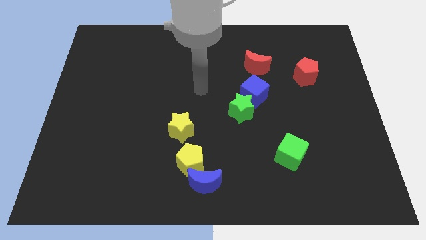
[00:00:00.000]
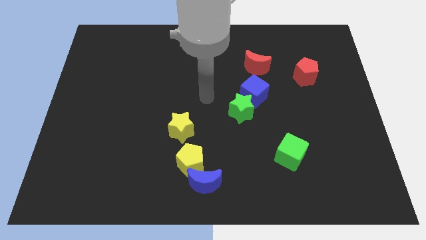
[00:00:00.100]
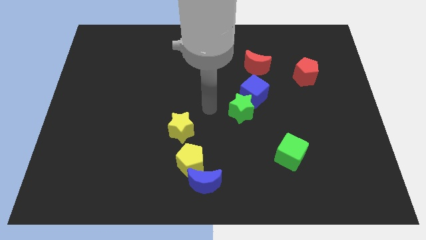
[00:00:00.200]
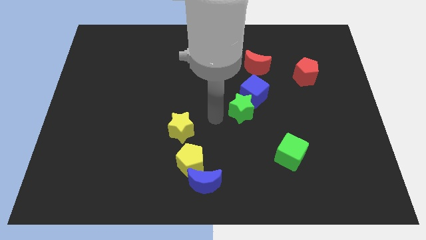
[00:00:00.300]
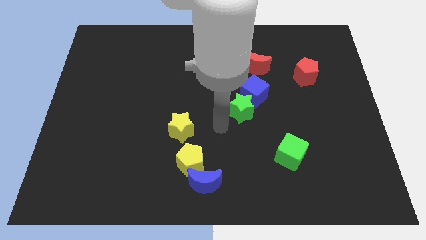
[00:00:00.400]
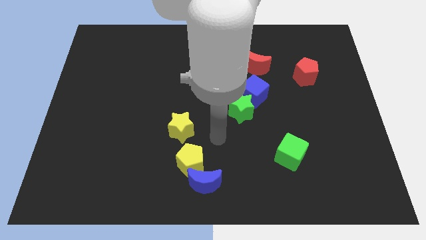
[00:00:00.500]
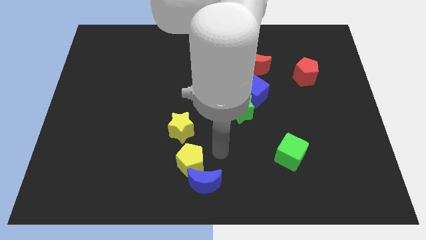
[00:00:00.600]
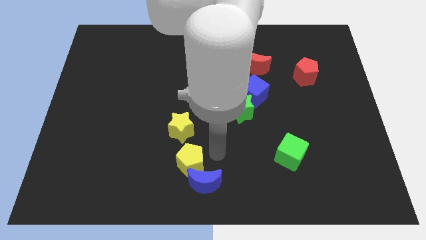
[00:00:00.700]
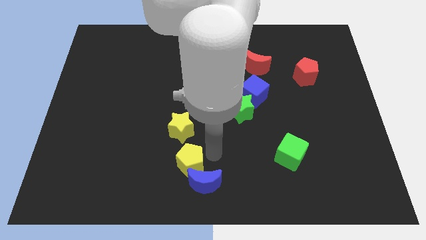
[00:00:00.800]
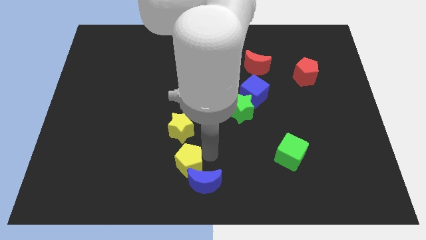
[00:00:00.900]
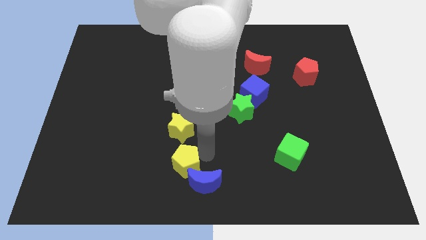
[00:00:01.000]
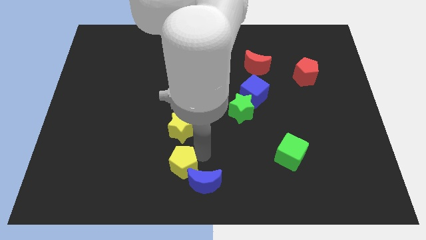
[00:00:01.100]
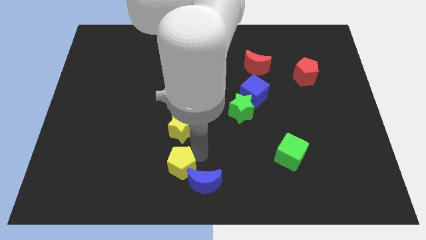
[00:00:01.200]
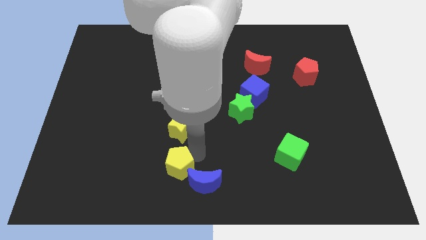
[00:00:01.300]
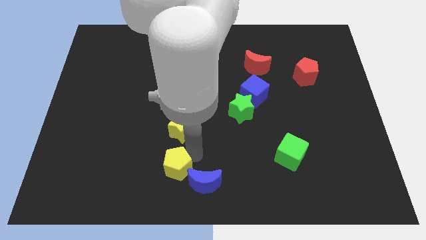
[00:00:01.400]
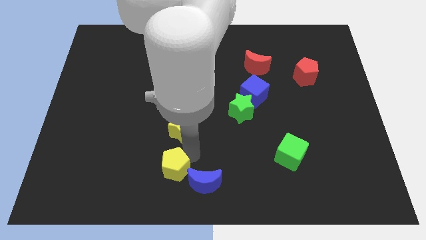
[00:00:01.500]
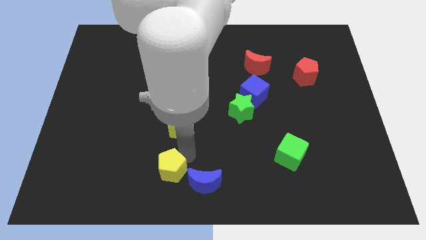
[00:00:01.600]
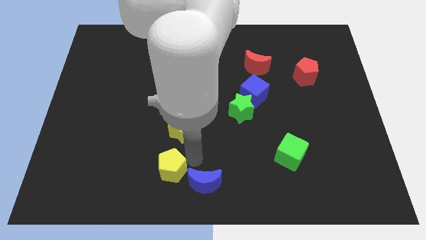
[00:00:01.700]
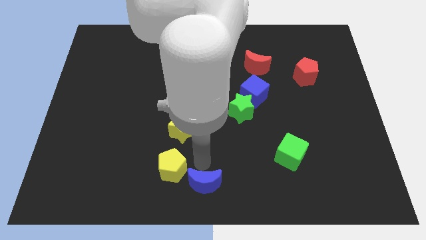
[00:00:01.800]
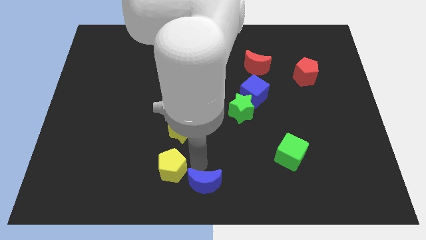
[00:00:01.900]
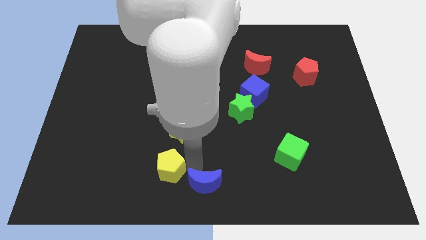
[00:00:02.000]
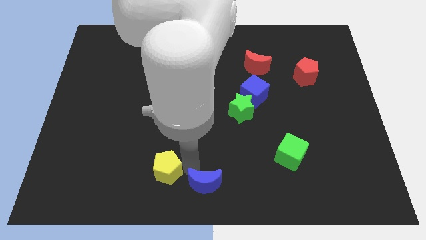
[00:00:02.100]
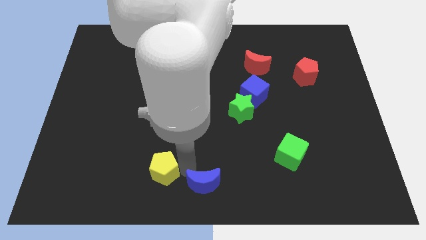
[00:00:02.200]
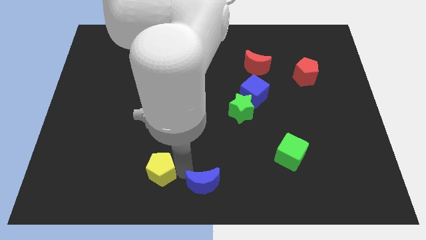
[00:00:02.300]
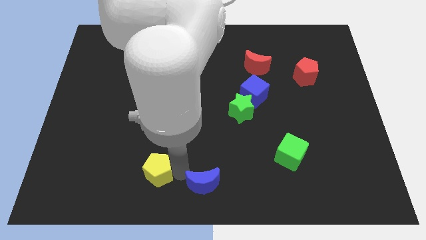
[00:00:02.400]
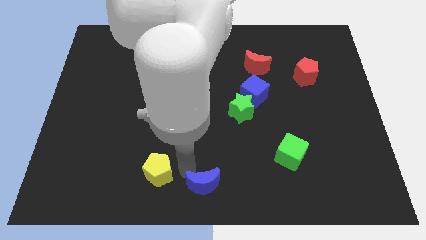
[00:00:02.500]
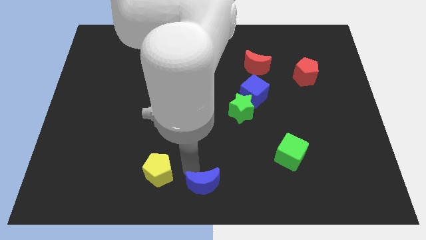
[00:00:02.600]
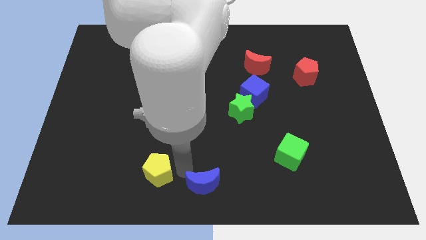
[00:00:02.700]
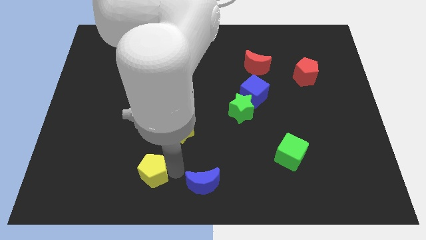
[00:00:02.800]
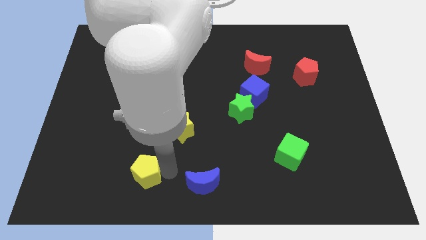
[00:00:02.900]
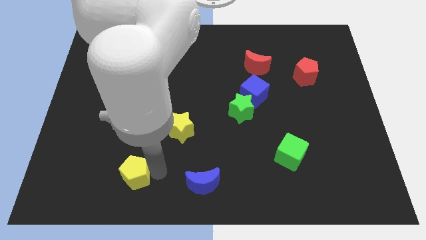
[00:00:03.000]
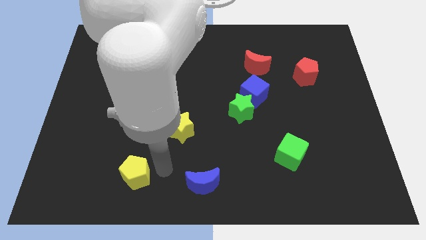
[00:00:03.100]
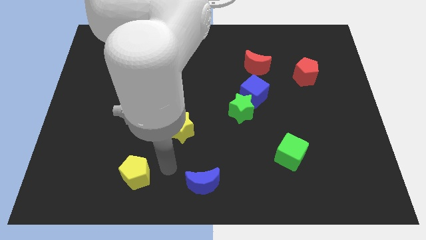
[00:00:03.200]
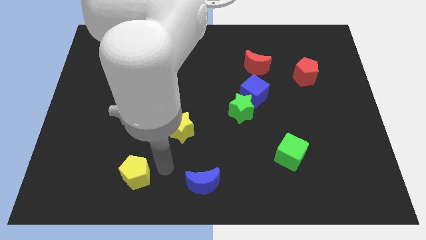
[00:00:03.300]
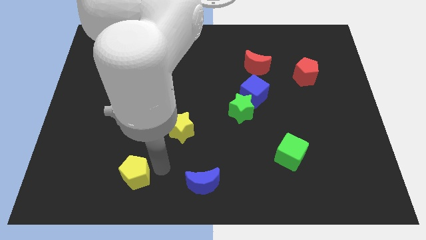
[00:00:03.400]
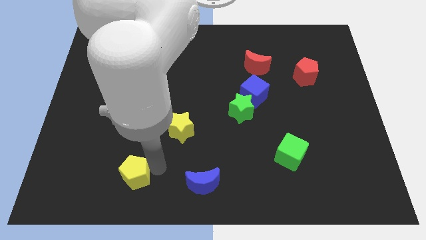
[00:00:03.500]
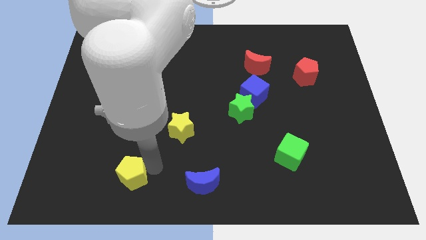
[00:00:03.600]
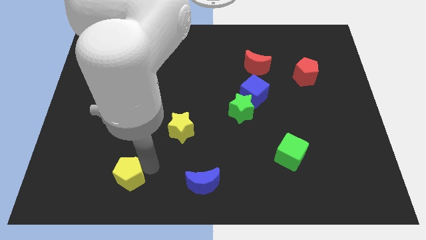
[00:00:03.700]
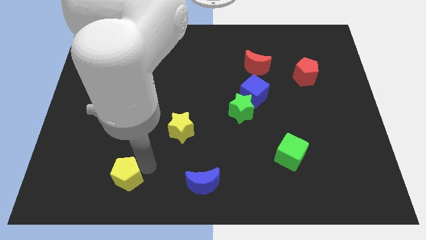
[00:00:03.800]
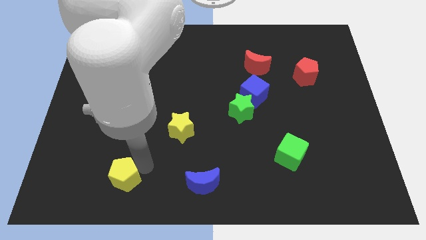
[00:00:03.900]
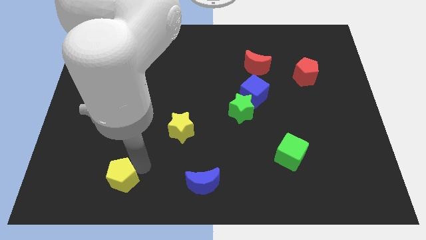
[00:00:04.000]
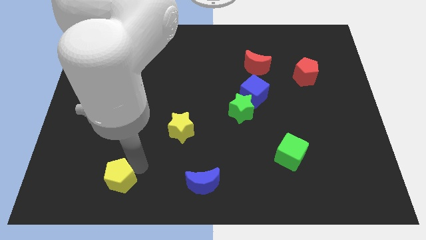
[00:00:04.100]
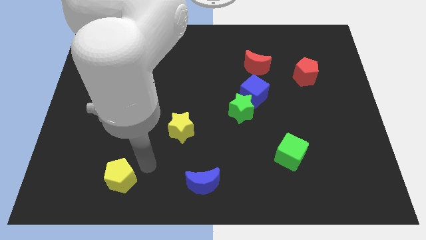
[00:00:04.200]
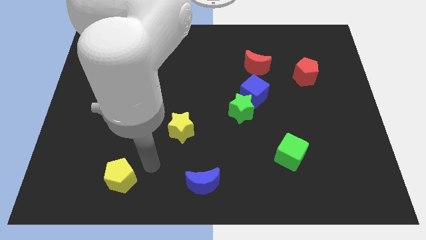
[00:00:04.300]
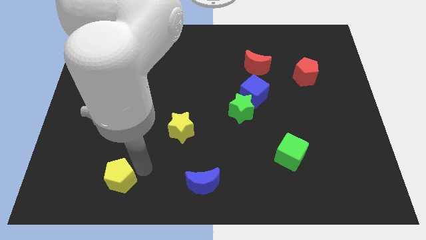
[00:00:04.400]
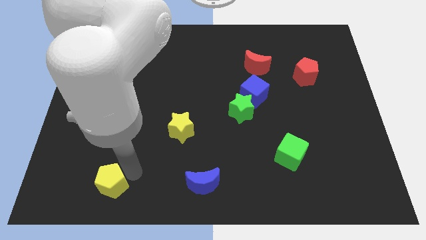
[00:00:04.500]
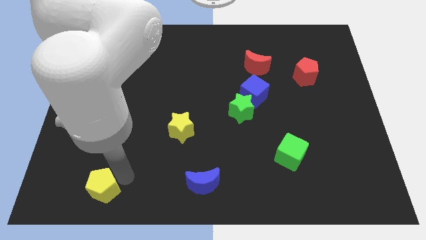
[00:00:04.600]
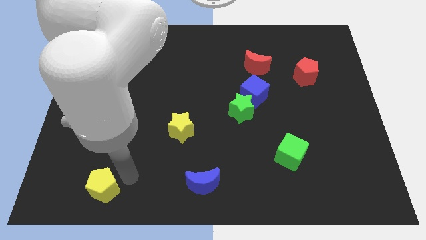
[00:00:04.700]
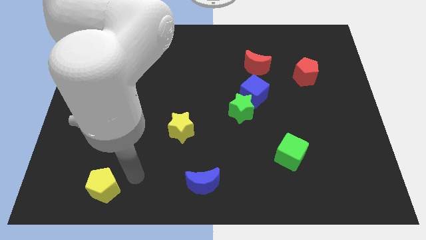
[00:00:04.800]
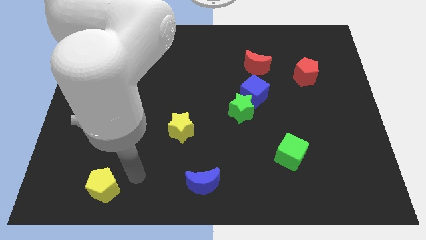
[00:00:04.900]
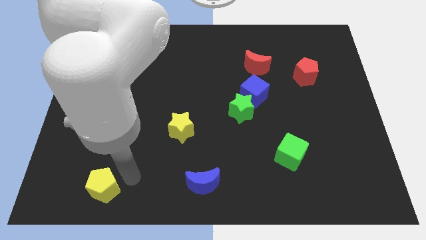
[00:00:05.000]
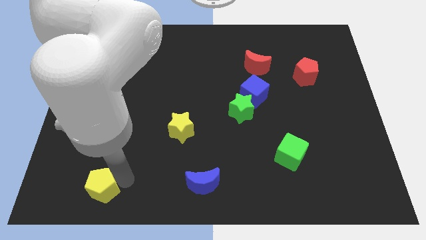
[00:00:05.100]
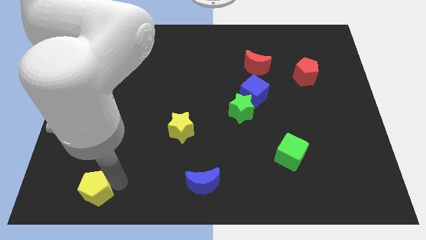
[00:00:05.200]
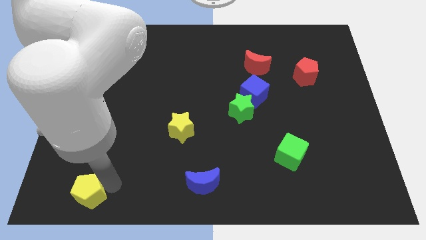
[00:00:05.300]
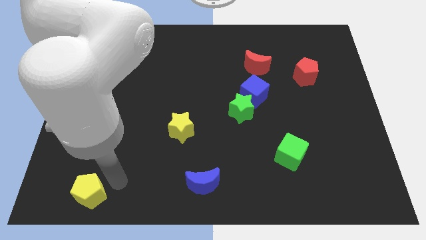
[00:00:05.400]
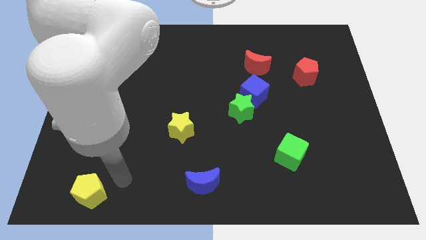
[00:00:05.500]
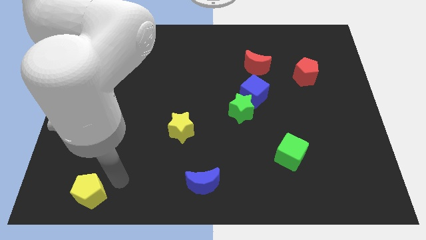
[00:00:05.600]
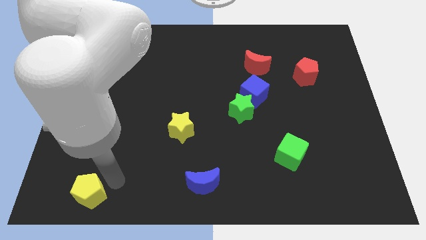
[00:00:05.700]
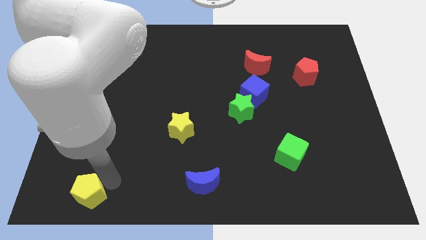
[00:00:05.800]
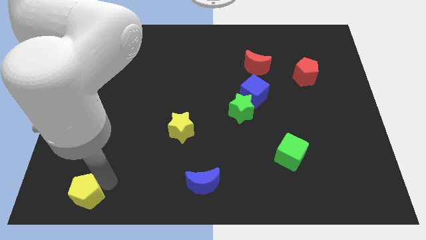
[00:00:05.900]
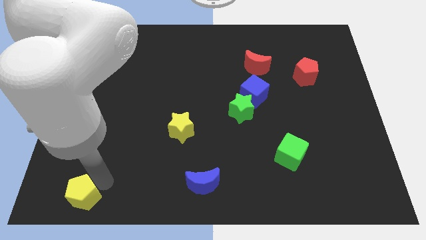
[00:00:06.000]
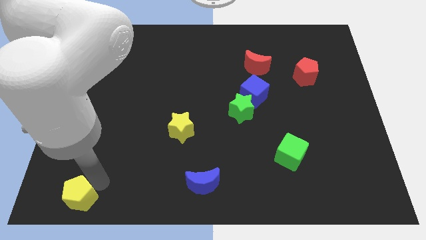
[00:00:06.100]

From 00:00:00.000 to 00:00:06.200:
put the yellow pentagon to the lower left corner
